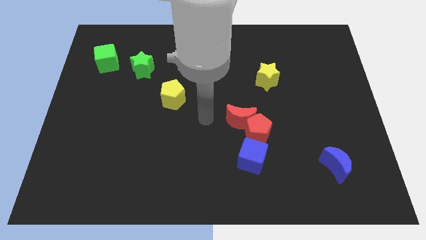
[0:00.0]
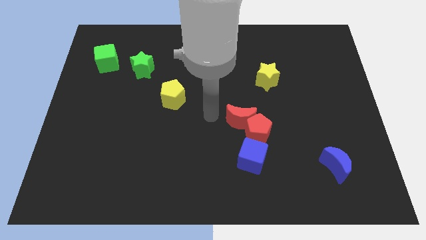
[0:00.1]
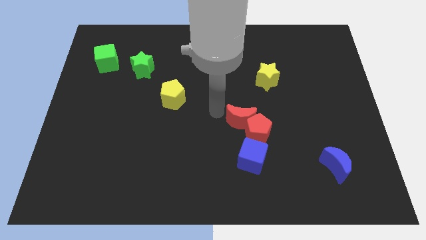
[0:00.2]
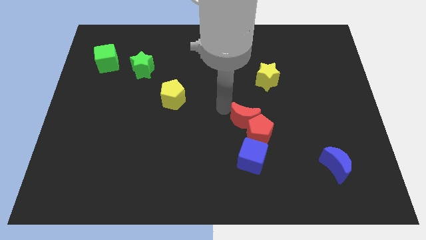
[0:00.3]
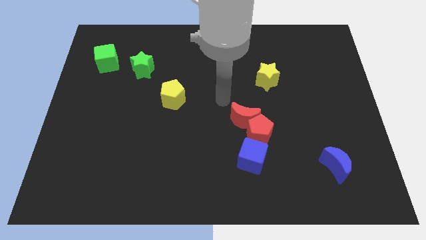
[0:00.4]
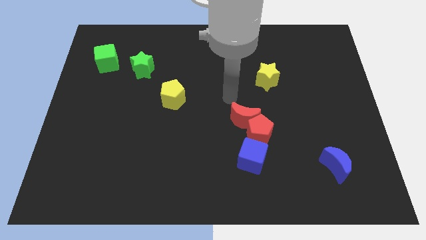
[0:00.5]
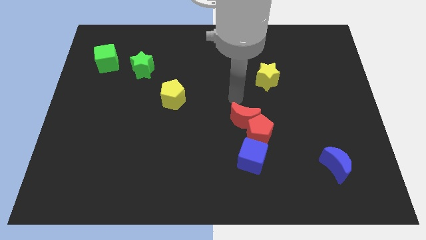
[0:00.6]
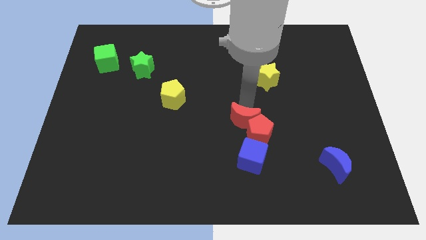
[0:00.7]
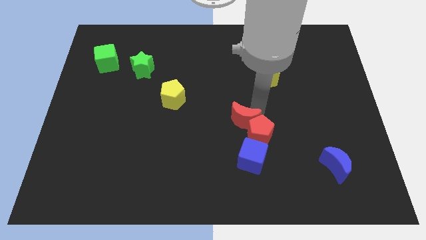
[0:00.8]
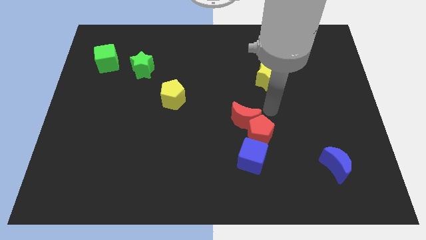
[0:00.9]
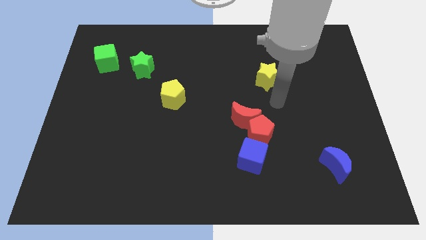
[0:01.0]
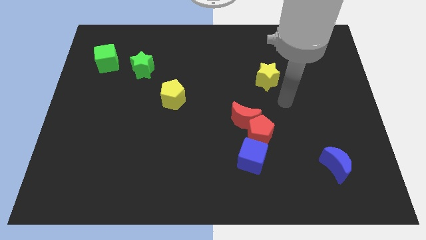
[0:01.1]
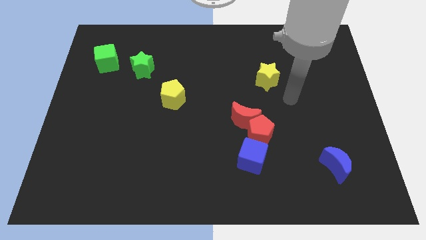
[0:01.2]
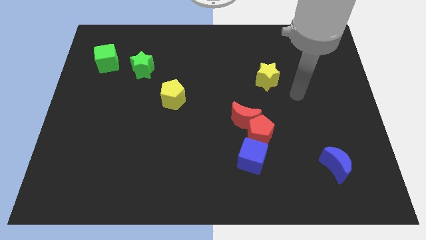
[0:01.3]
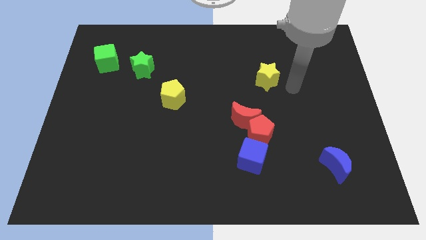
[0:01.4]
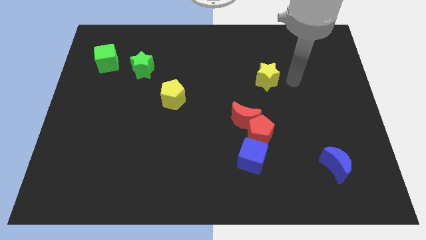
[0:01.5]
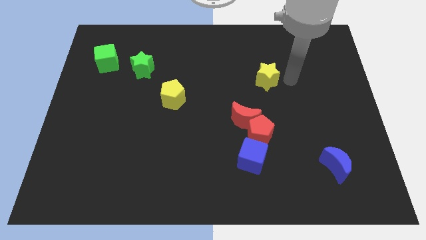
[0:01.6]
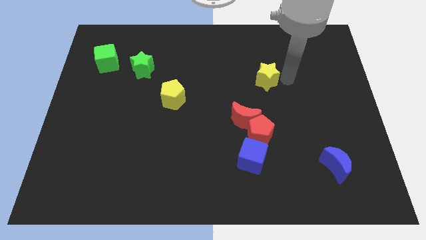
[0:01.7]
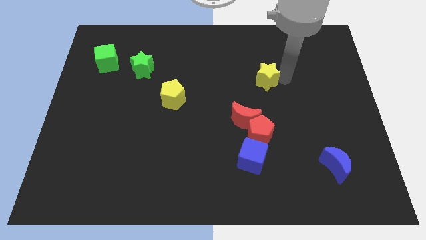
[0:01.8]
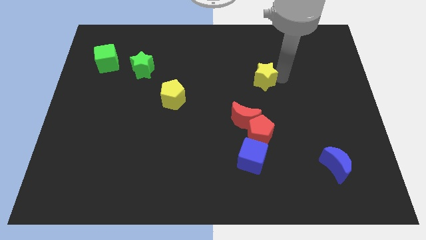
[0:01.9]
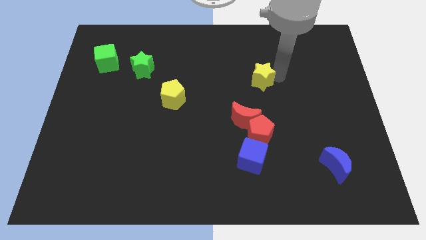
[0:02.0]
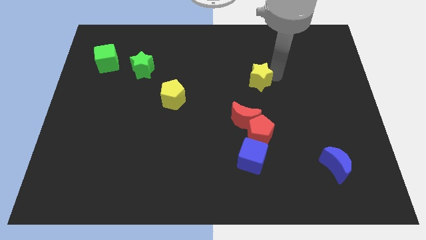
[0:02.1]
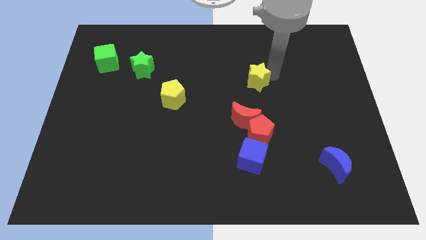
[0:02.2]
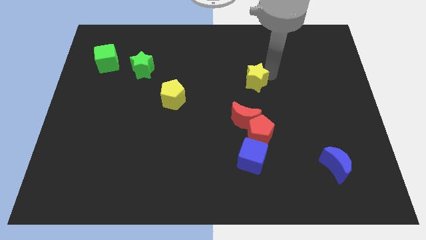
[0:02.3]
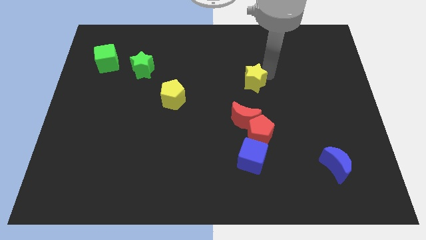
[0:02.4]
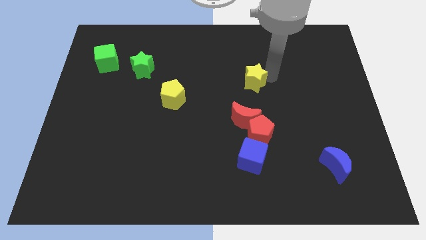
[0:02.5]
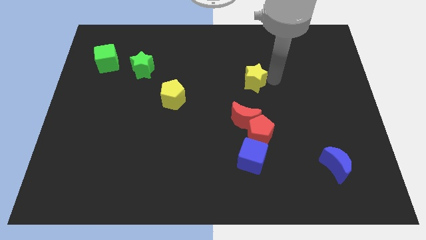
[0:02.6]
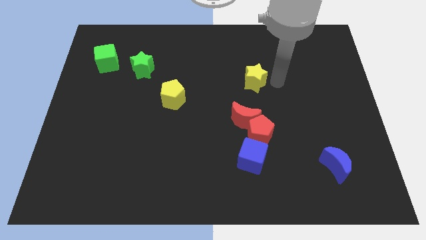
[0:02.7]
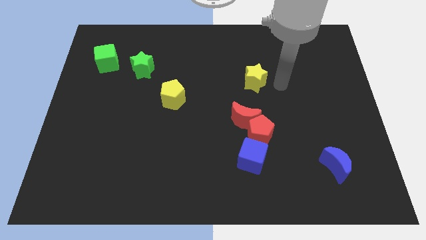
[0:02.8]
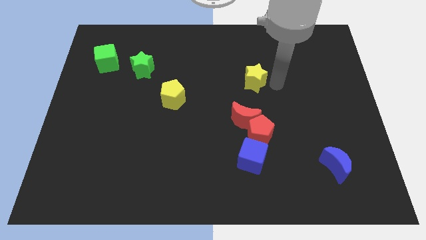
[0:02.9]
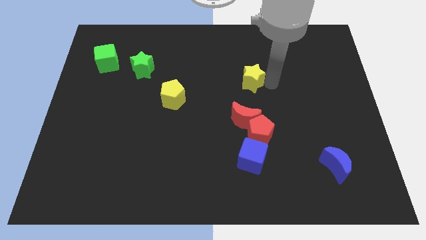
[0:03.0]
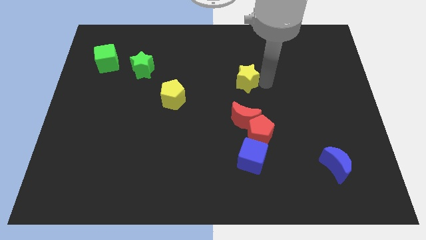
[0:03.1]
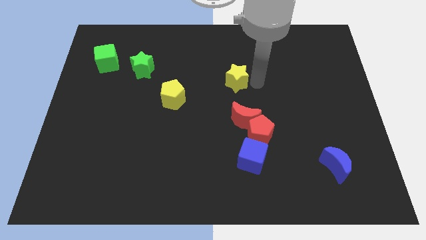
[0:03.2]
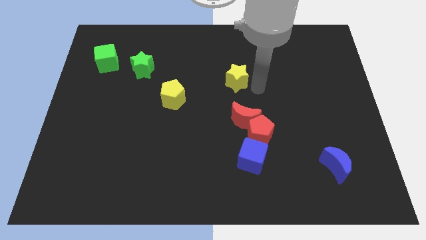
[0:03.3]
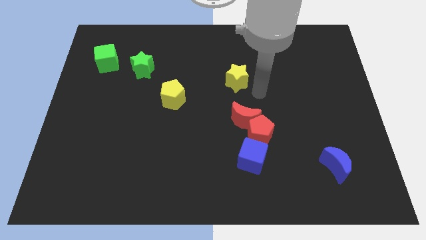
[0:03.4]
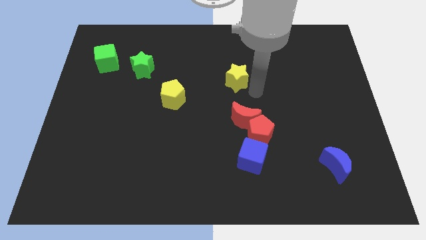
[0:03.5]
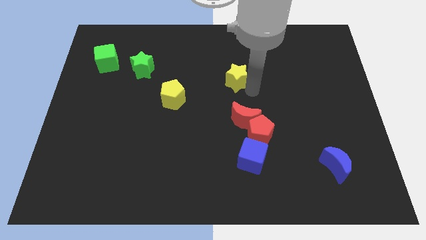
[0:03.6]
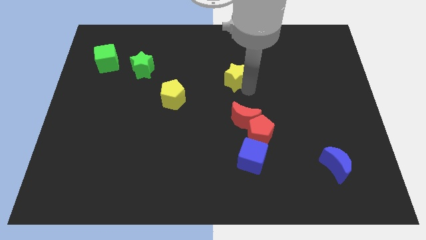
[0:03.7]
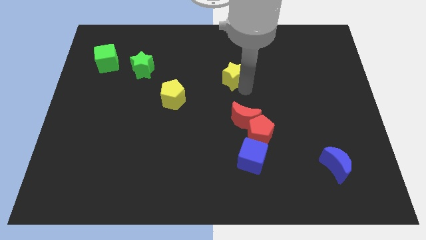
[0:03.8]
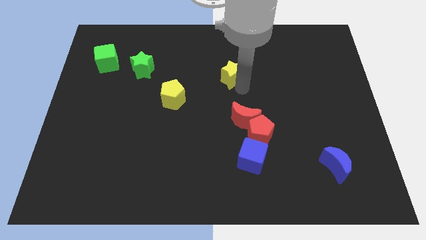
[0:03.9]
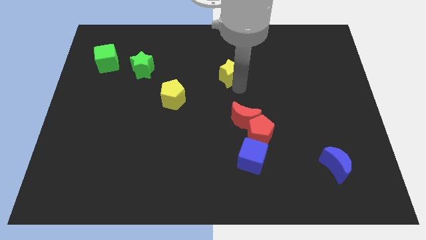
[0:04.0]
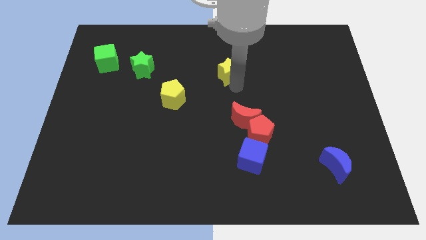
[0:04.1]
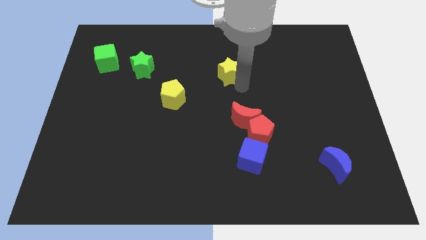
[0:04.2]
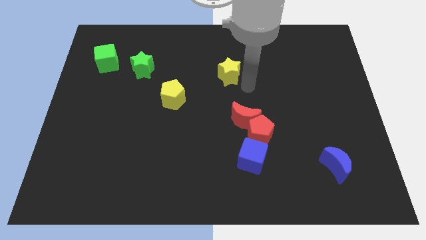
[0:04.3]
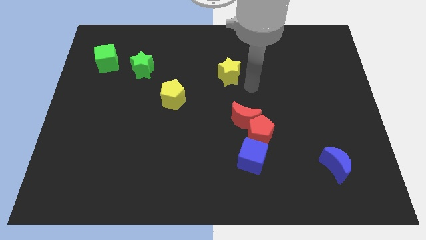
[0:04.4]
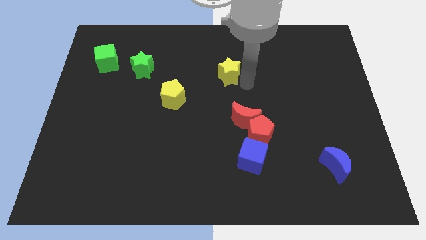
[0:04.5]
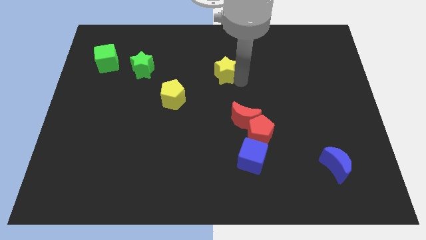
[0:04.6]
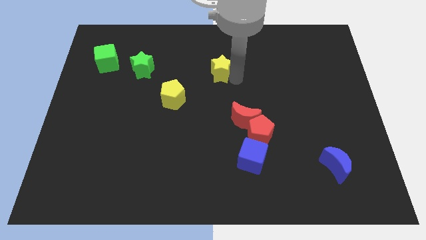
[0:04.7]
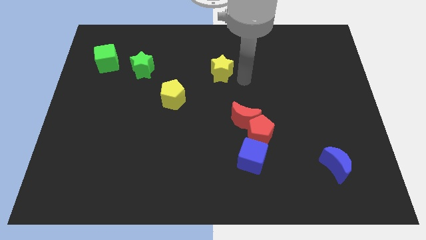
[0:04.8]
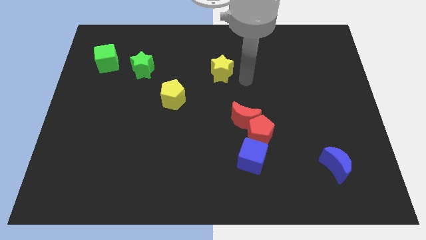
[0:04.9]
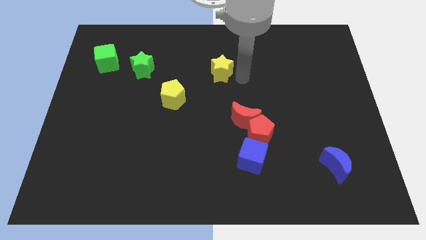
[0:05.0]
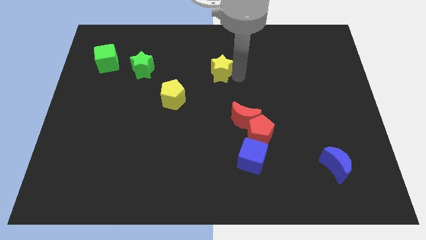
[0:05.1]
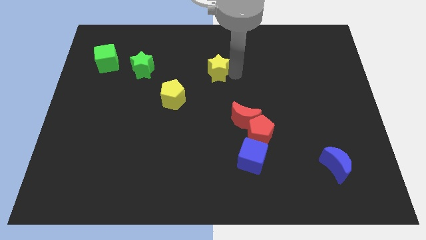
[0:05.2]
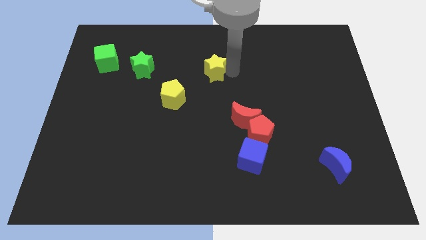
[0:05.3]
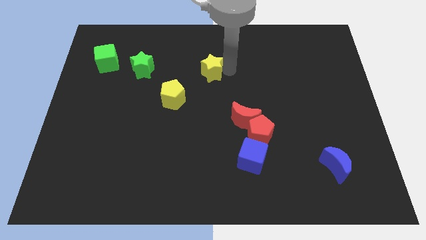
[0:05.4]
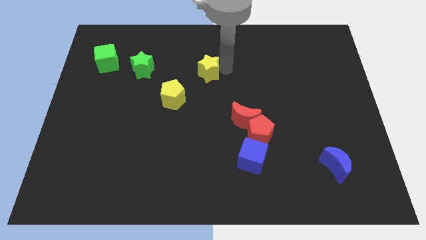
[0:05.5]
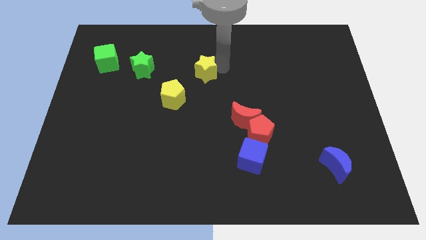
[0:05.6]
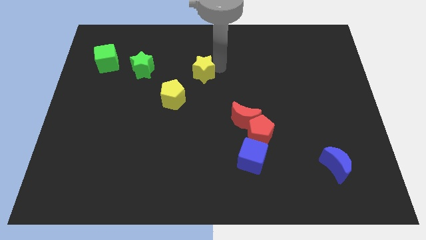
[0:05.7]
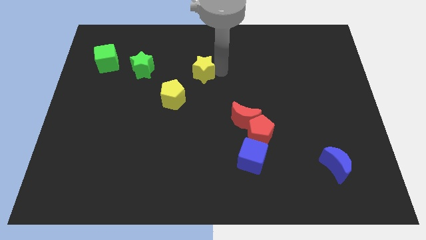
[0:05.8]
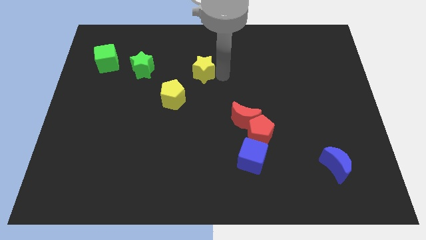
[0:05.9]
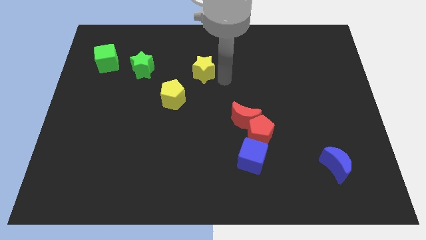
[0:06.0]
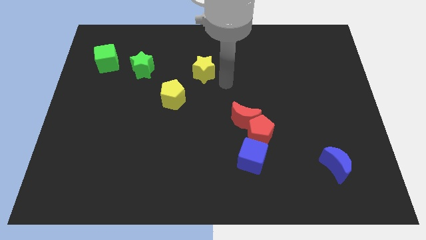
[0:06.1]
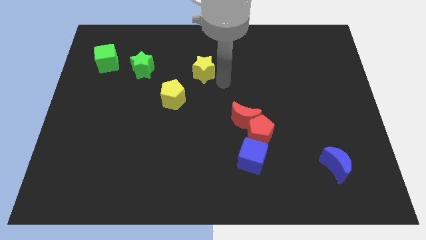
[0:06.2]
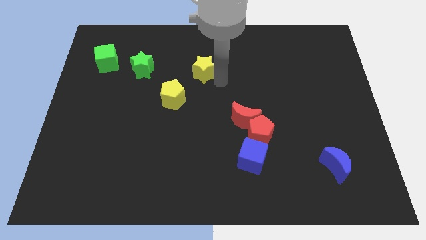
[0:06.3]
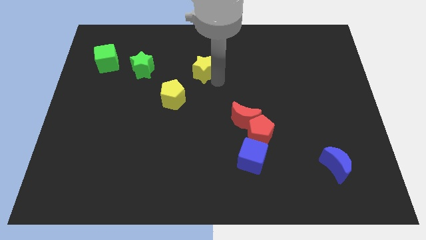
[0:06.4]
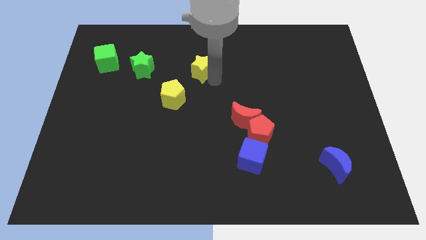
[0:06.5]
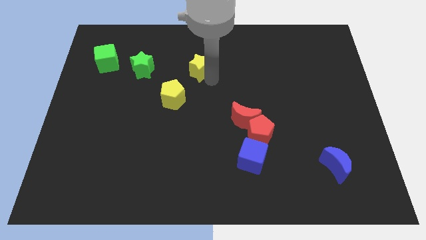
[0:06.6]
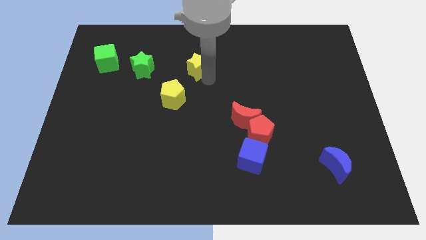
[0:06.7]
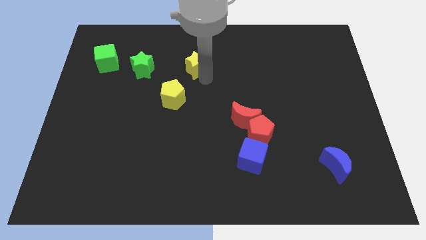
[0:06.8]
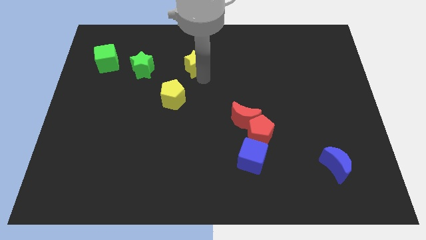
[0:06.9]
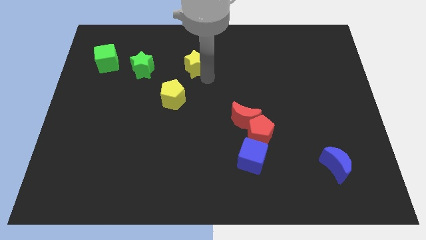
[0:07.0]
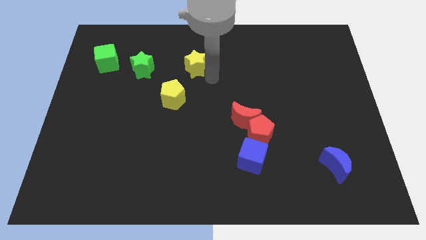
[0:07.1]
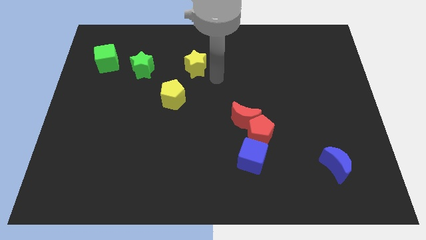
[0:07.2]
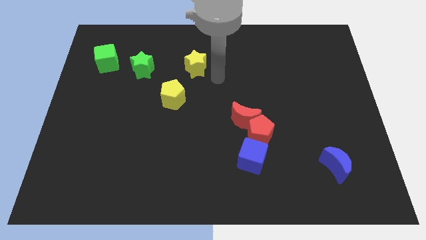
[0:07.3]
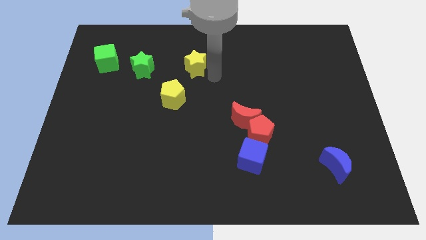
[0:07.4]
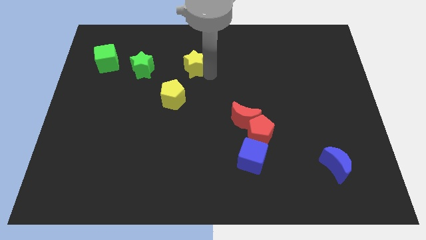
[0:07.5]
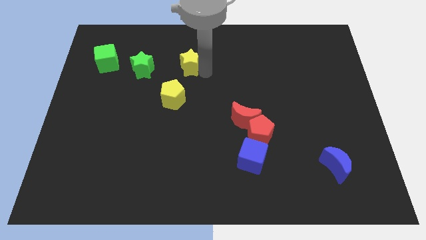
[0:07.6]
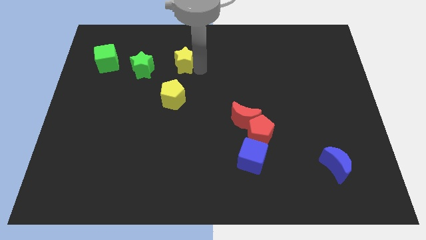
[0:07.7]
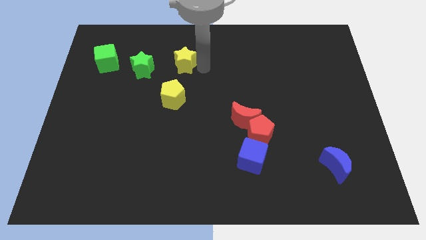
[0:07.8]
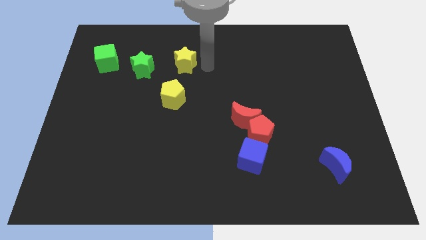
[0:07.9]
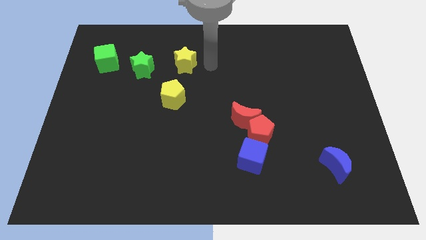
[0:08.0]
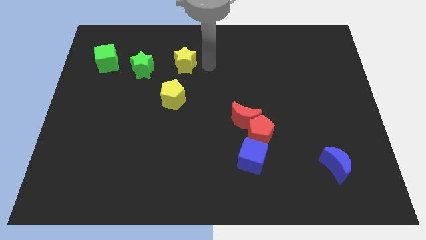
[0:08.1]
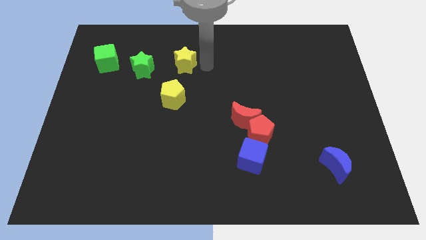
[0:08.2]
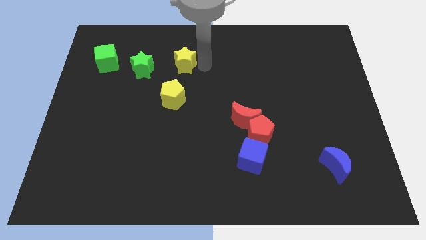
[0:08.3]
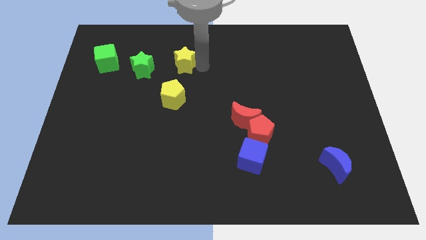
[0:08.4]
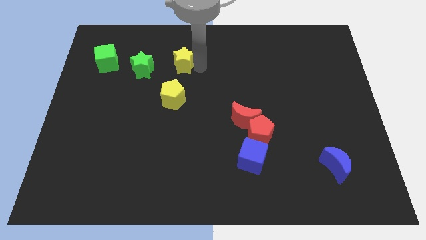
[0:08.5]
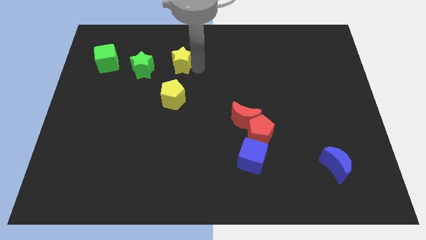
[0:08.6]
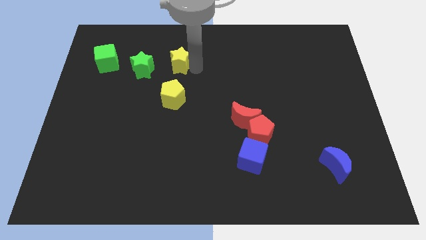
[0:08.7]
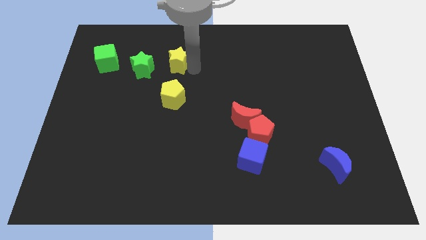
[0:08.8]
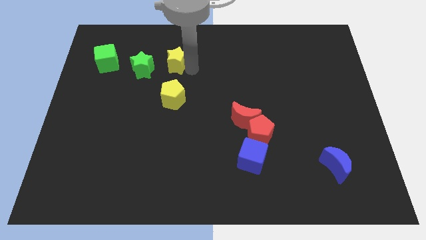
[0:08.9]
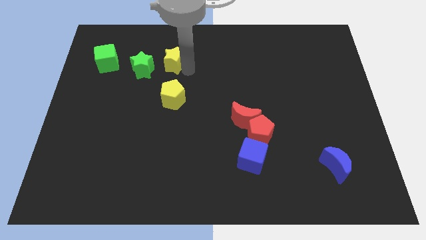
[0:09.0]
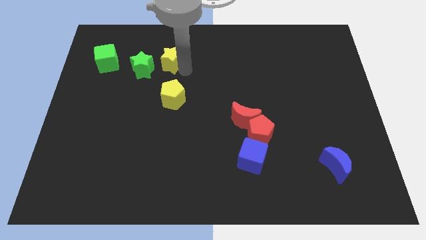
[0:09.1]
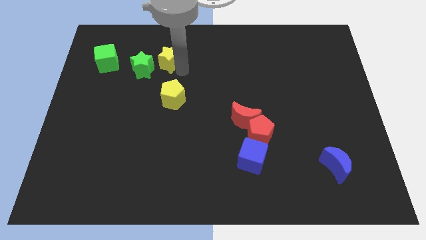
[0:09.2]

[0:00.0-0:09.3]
push the yellow star to the right side of the green cube
